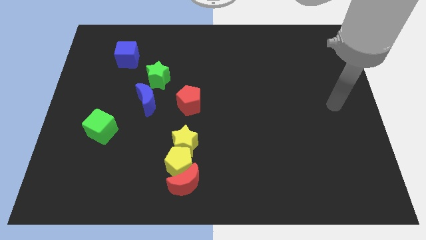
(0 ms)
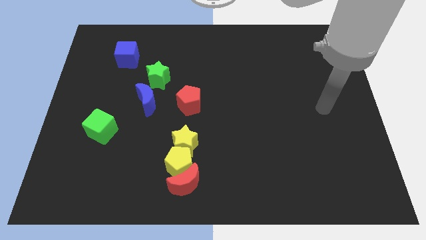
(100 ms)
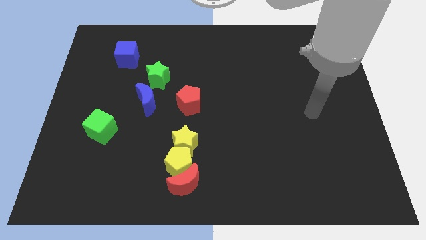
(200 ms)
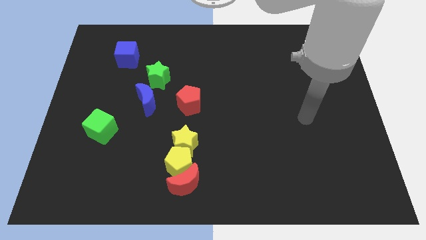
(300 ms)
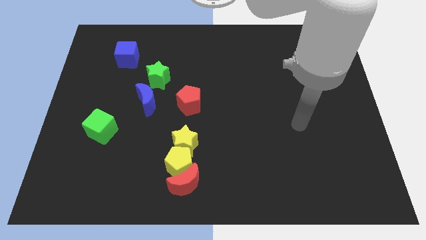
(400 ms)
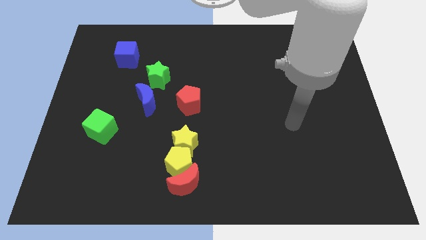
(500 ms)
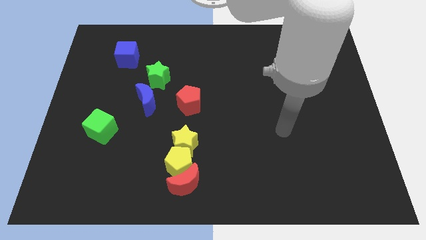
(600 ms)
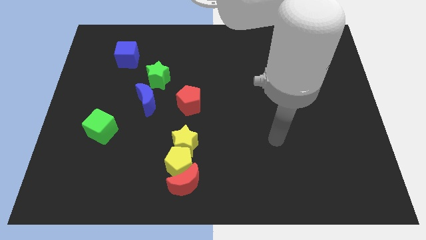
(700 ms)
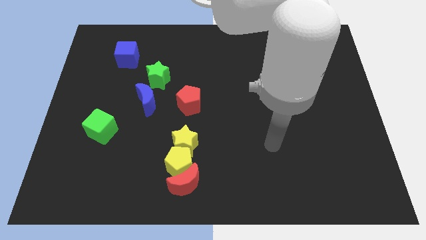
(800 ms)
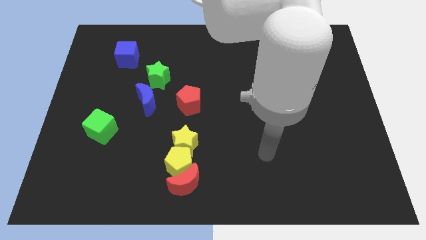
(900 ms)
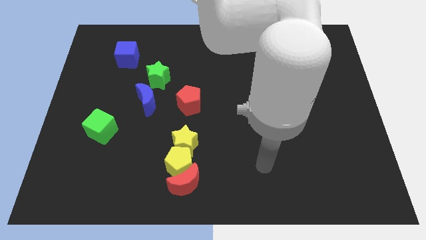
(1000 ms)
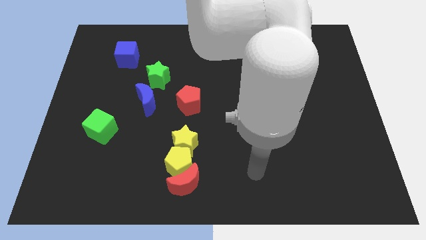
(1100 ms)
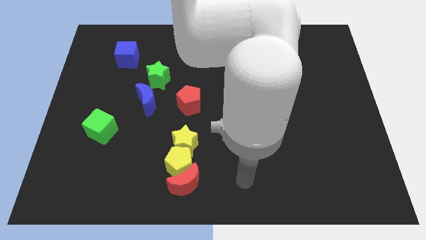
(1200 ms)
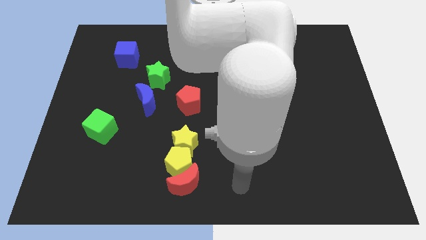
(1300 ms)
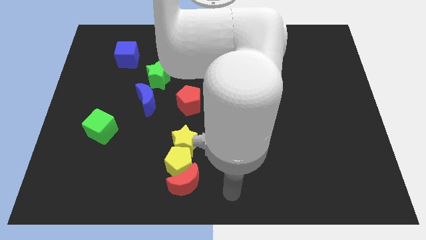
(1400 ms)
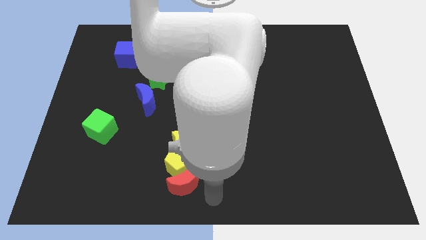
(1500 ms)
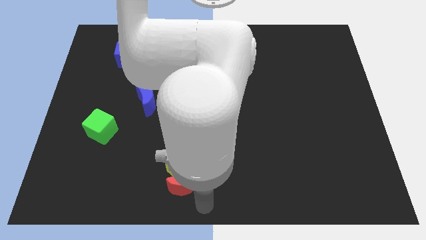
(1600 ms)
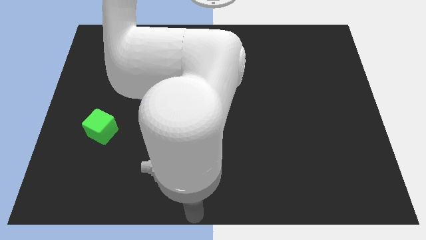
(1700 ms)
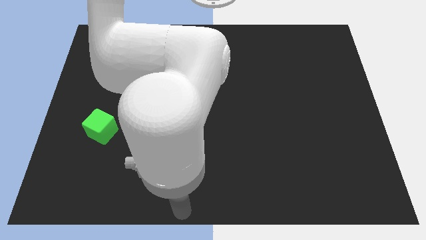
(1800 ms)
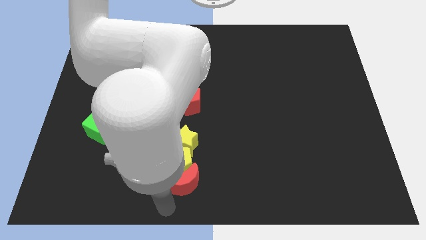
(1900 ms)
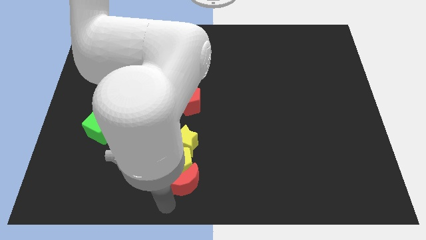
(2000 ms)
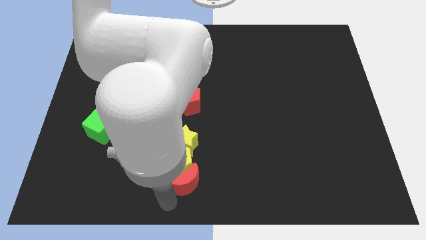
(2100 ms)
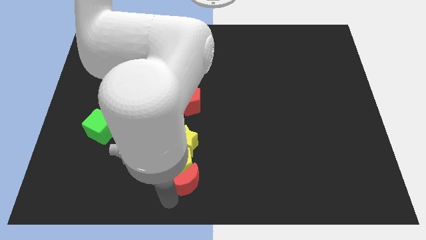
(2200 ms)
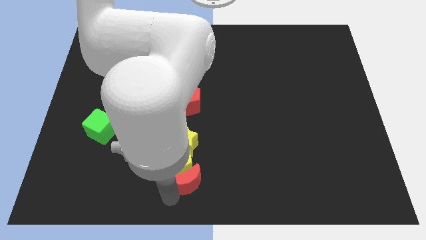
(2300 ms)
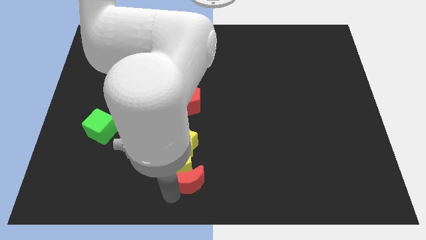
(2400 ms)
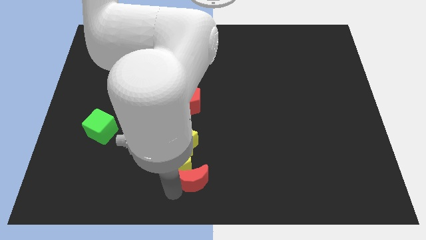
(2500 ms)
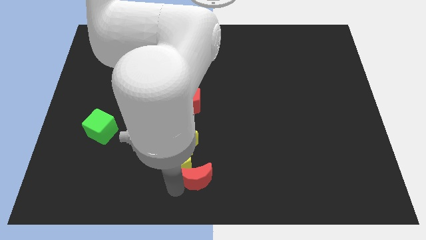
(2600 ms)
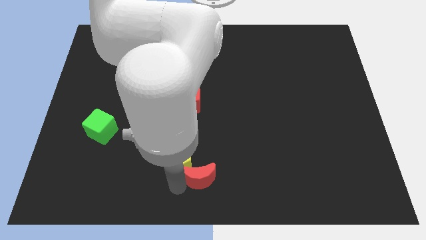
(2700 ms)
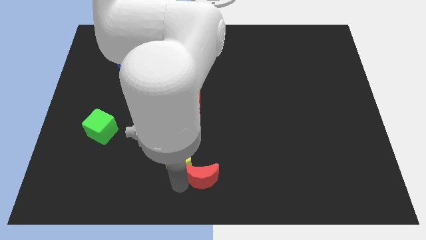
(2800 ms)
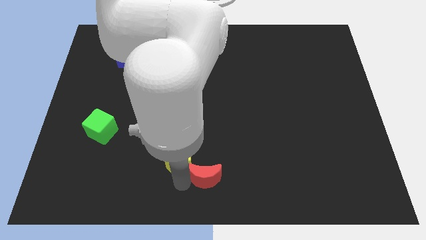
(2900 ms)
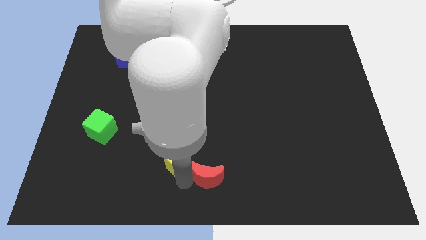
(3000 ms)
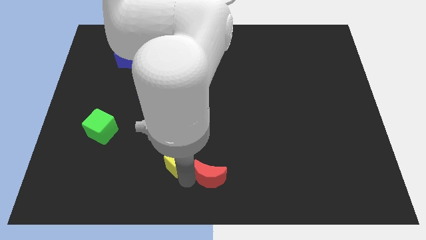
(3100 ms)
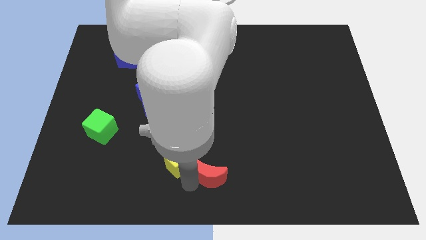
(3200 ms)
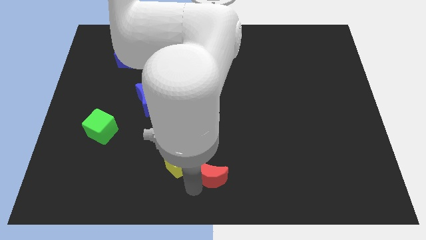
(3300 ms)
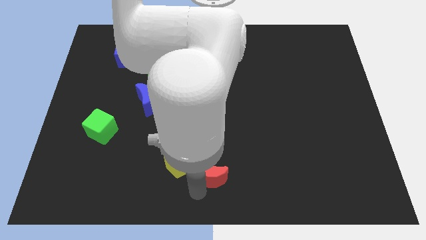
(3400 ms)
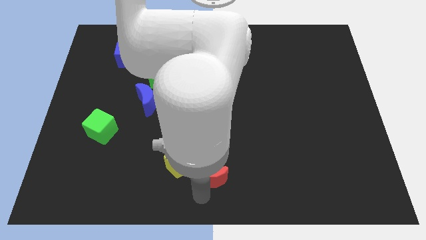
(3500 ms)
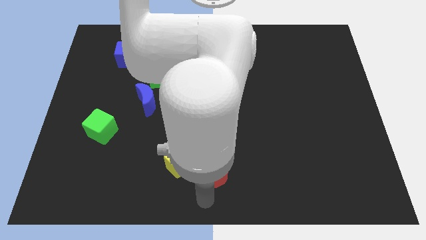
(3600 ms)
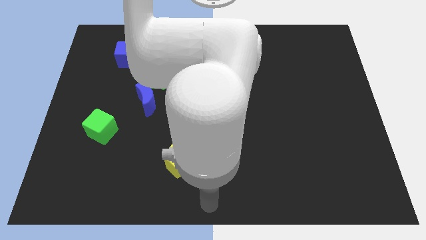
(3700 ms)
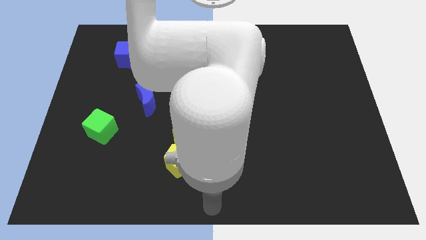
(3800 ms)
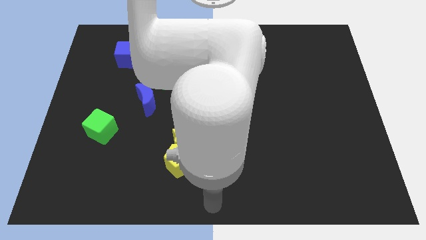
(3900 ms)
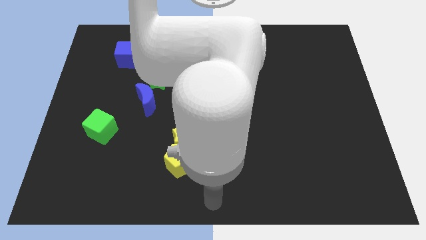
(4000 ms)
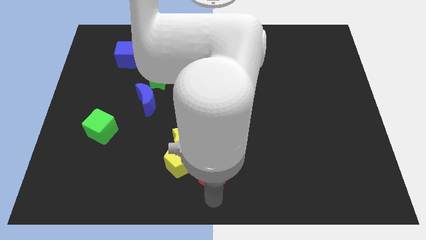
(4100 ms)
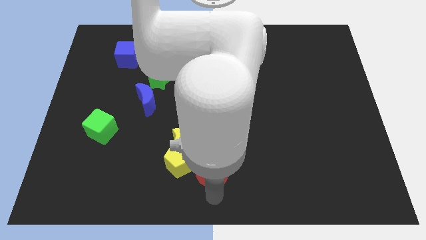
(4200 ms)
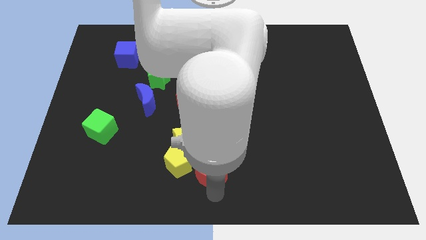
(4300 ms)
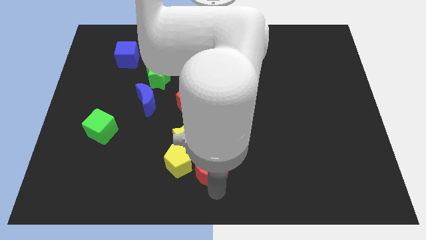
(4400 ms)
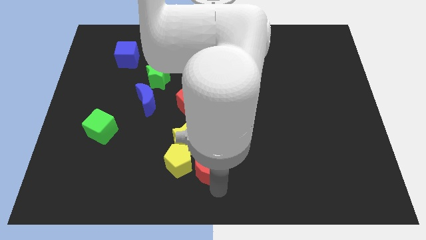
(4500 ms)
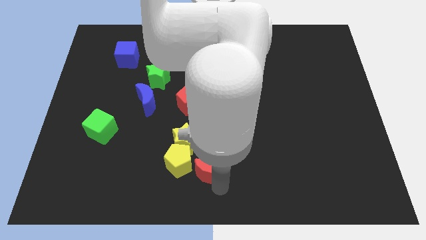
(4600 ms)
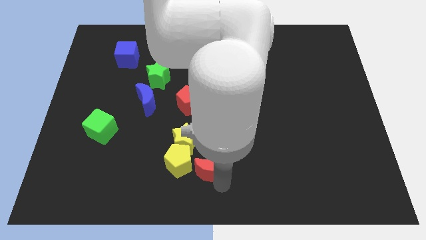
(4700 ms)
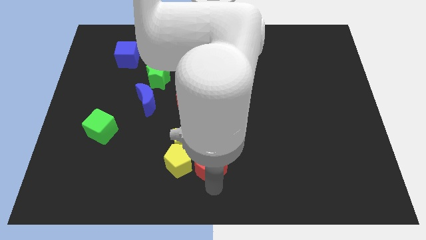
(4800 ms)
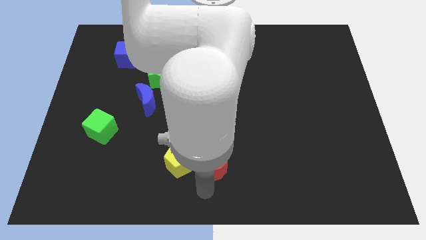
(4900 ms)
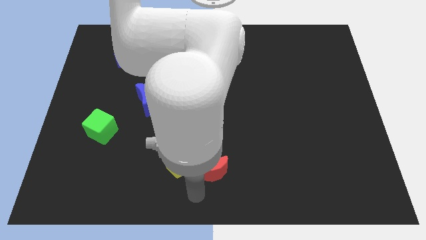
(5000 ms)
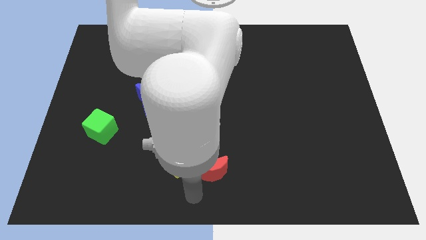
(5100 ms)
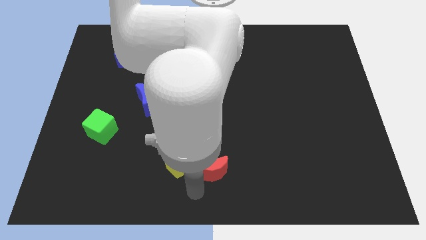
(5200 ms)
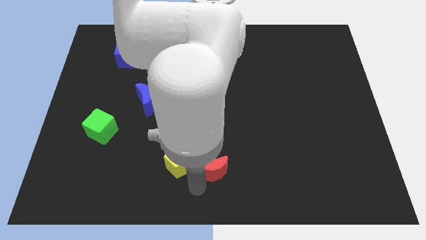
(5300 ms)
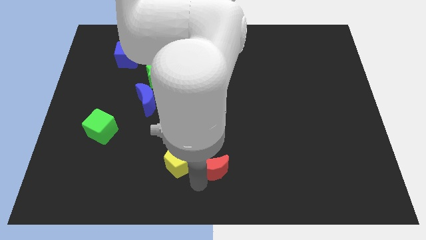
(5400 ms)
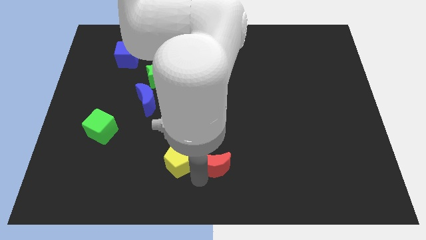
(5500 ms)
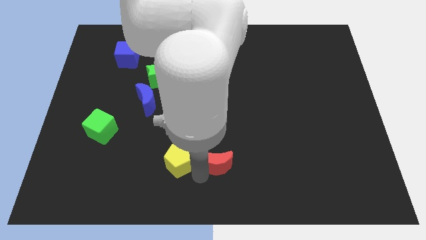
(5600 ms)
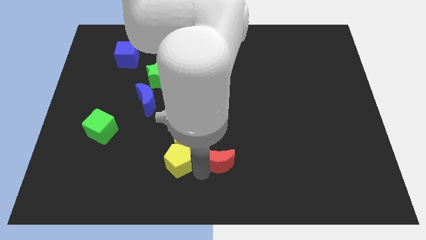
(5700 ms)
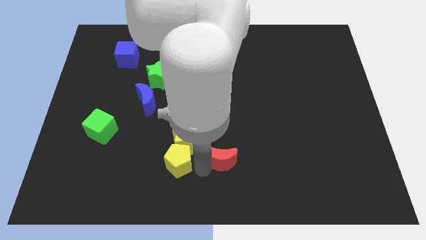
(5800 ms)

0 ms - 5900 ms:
put the red moon right of the yellow star
